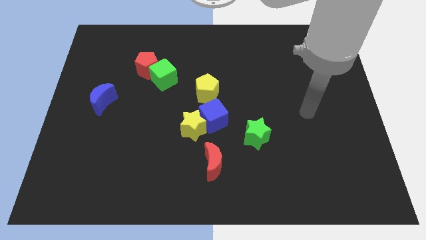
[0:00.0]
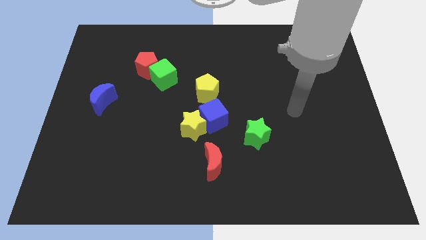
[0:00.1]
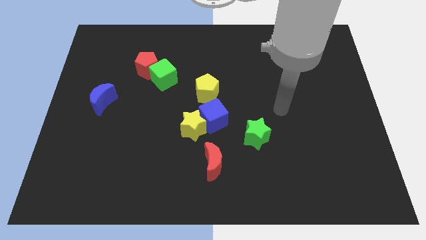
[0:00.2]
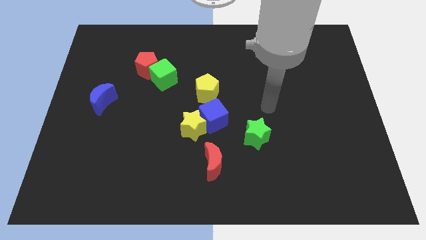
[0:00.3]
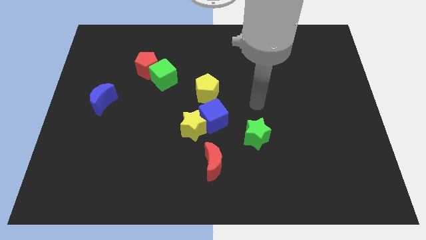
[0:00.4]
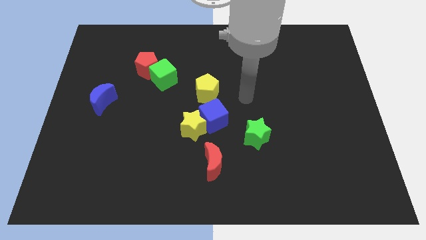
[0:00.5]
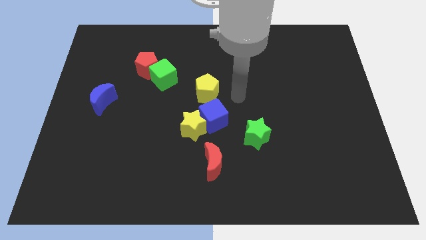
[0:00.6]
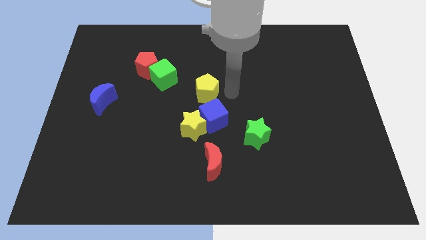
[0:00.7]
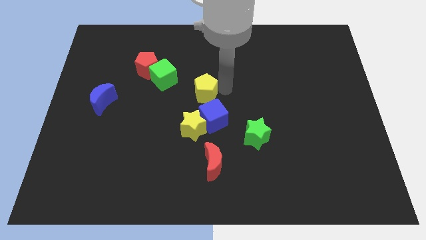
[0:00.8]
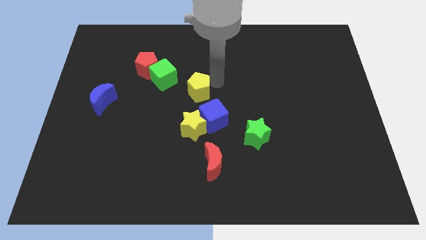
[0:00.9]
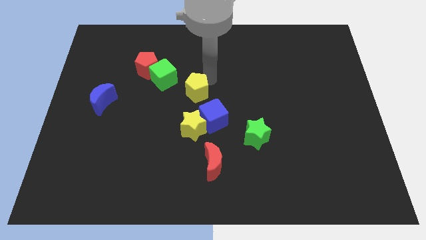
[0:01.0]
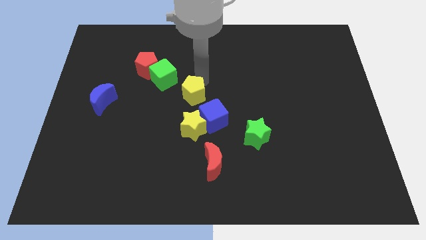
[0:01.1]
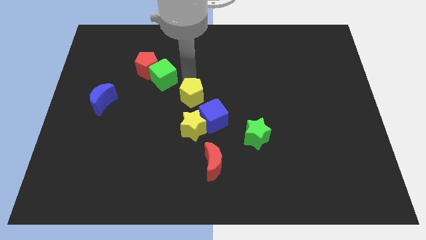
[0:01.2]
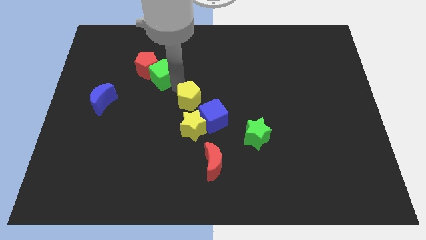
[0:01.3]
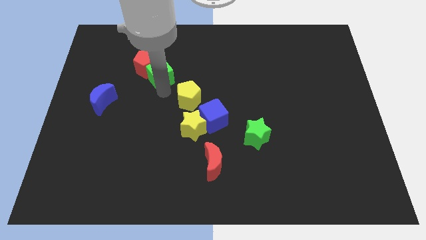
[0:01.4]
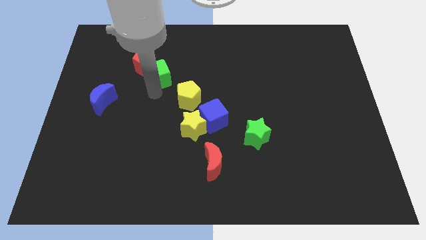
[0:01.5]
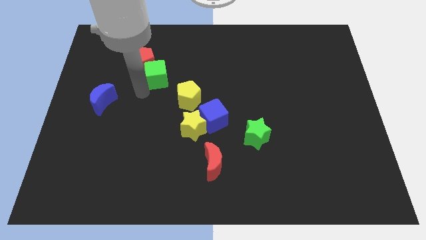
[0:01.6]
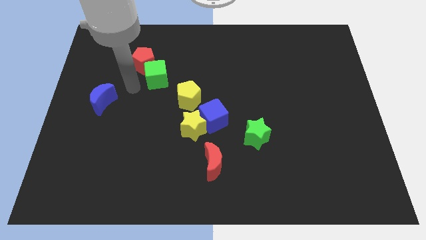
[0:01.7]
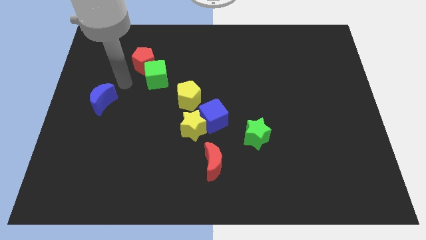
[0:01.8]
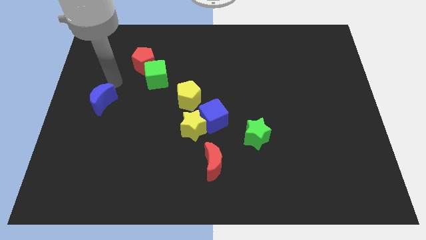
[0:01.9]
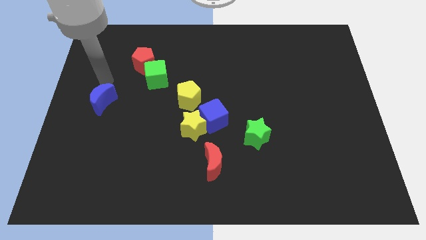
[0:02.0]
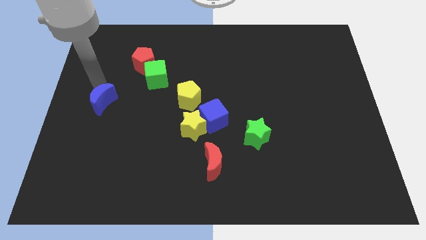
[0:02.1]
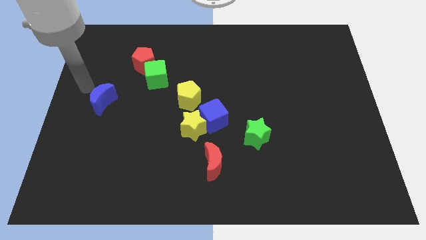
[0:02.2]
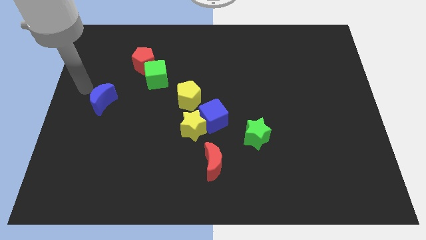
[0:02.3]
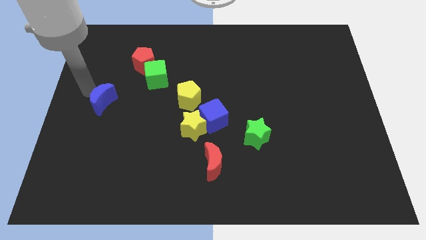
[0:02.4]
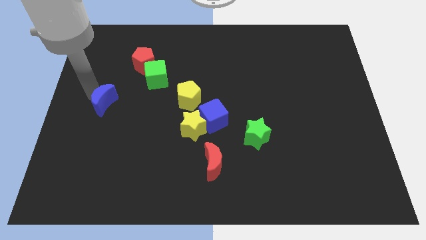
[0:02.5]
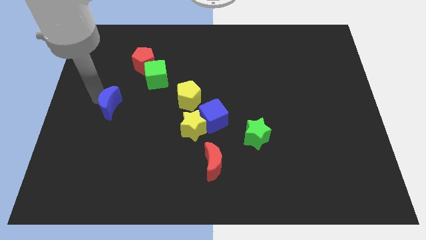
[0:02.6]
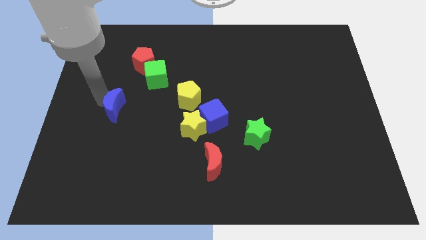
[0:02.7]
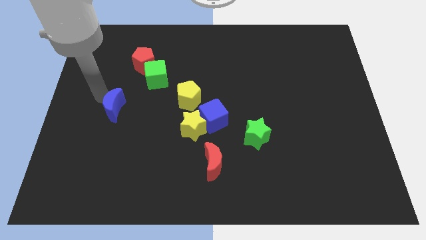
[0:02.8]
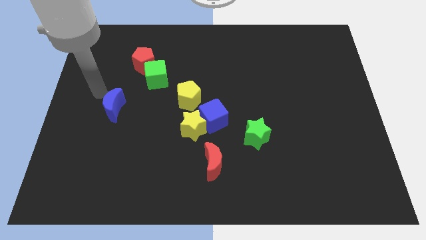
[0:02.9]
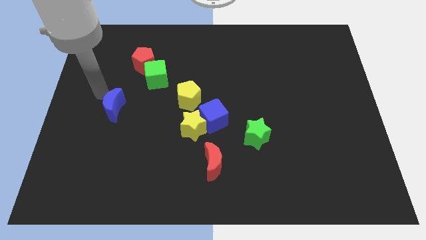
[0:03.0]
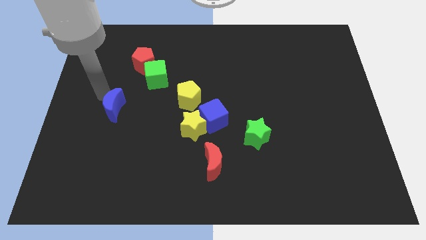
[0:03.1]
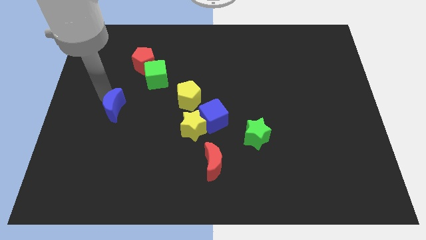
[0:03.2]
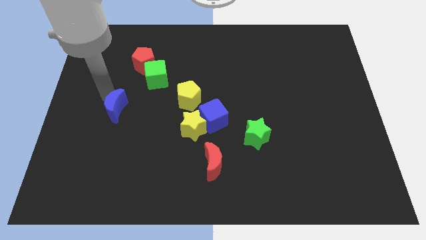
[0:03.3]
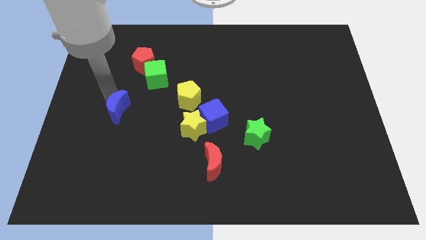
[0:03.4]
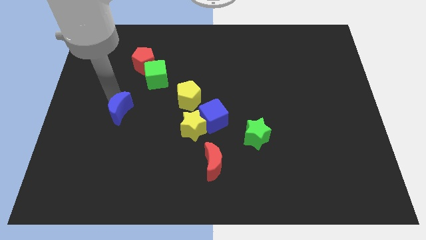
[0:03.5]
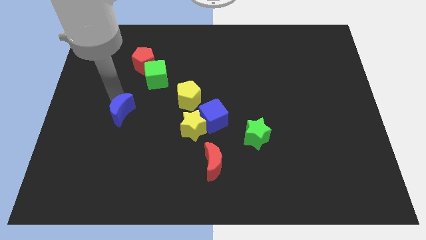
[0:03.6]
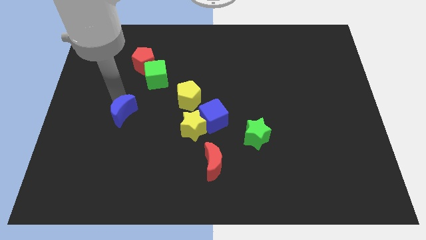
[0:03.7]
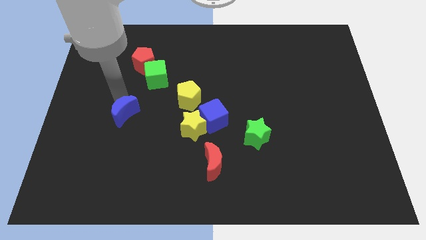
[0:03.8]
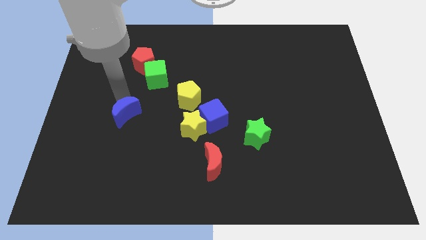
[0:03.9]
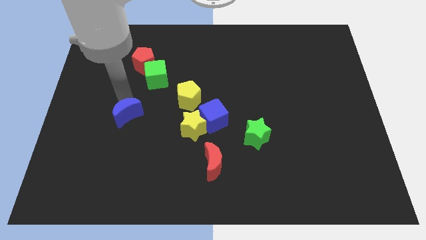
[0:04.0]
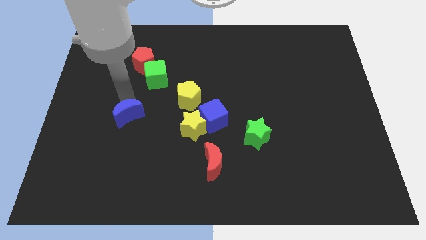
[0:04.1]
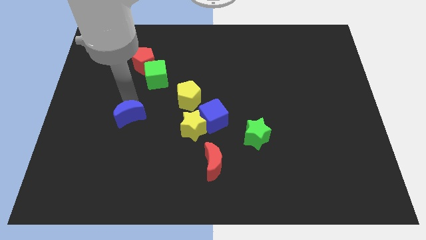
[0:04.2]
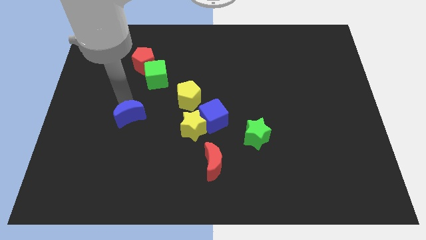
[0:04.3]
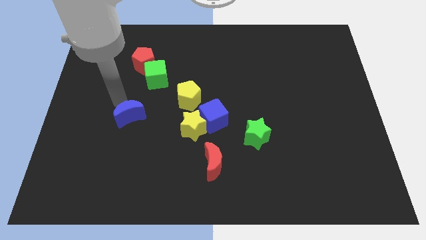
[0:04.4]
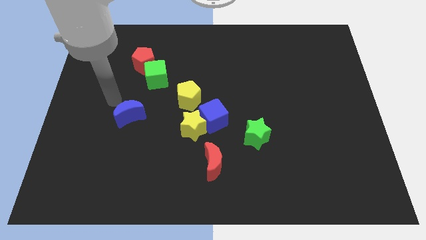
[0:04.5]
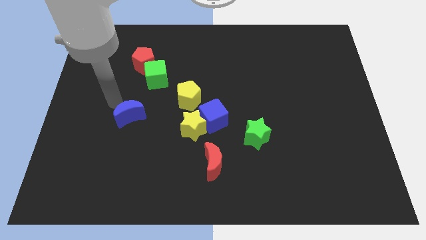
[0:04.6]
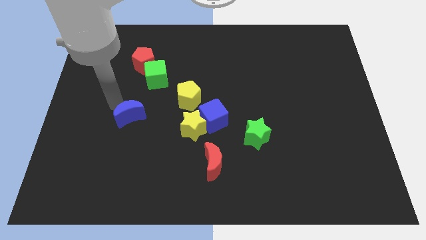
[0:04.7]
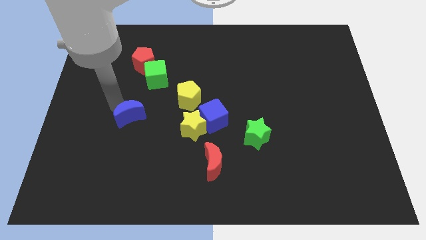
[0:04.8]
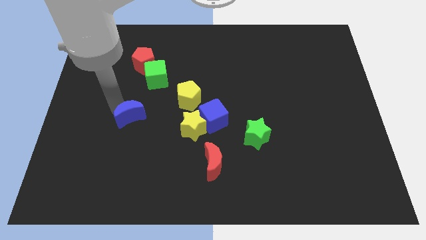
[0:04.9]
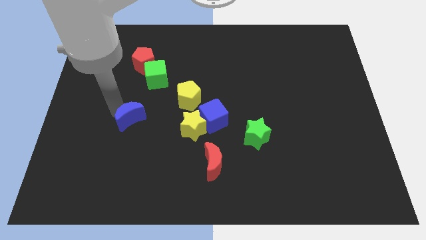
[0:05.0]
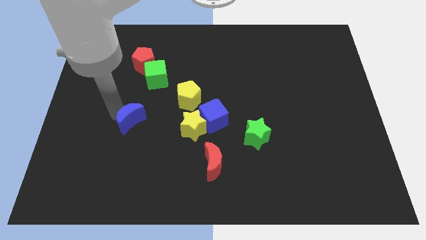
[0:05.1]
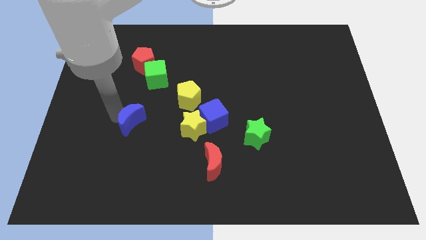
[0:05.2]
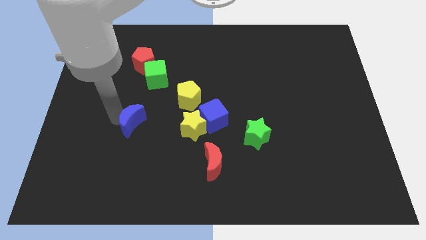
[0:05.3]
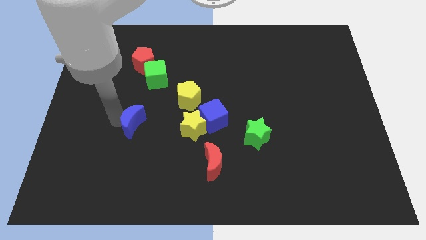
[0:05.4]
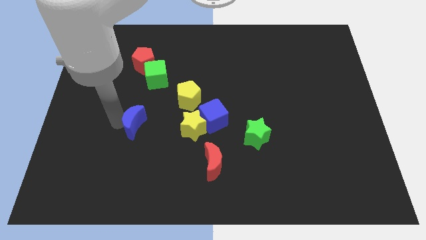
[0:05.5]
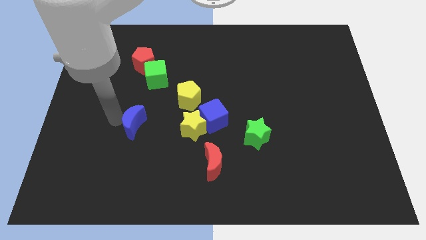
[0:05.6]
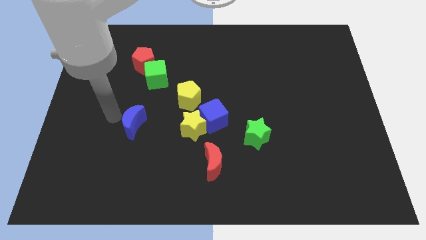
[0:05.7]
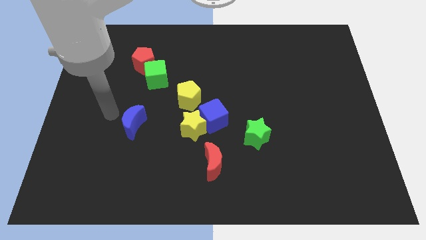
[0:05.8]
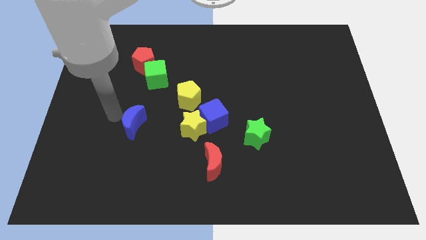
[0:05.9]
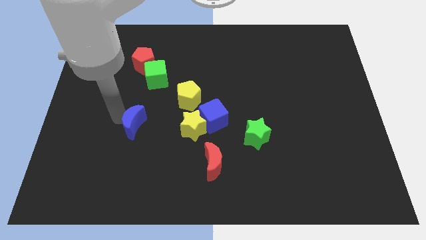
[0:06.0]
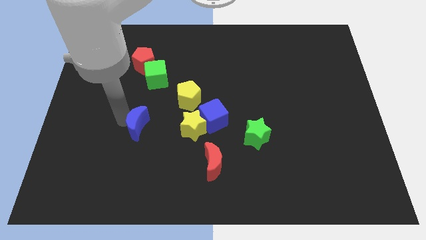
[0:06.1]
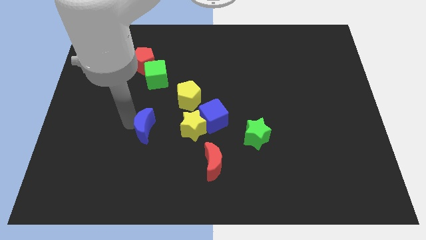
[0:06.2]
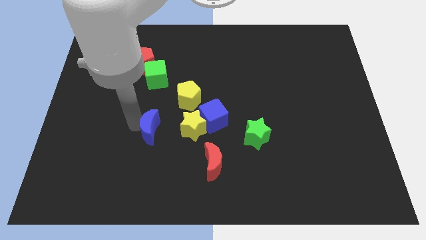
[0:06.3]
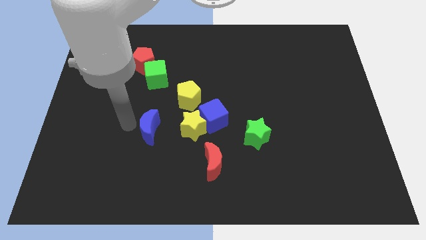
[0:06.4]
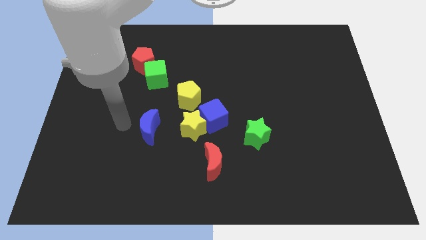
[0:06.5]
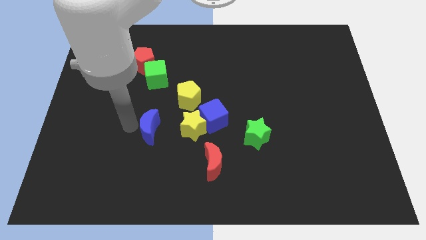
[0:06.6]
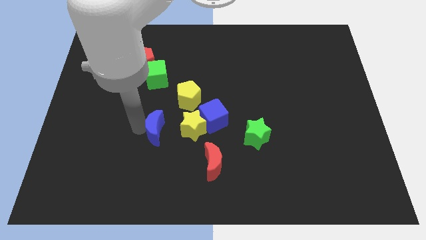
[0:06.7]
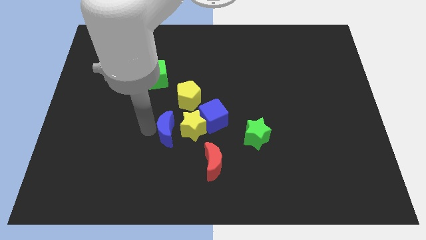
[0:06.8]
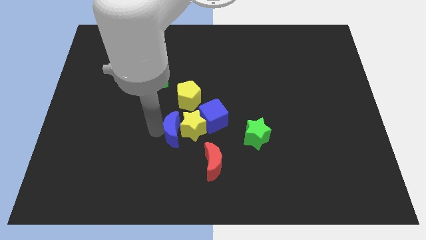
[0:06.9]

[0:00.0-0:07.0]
move the blue moon to the bottom left side of the blue cube
